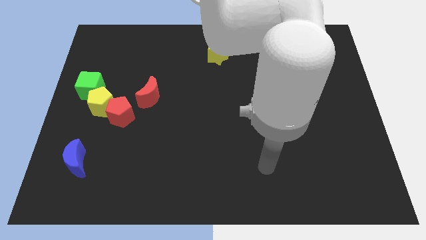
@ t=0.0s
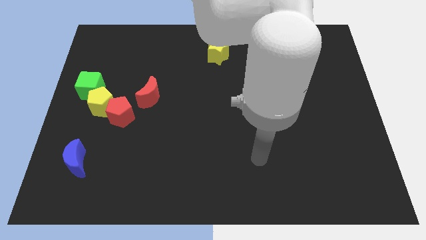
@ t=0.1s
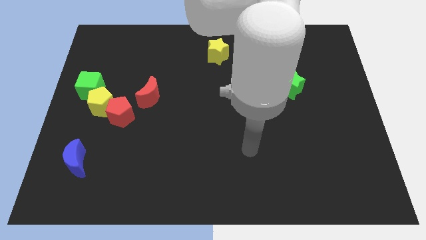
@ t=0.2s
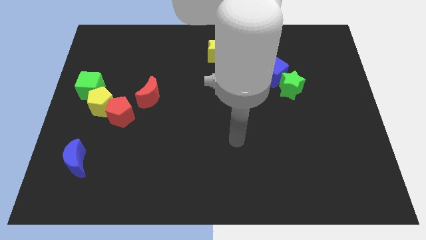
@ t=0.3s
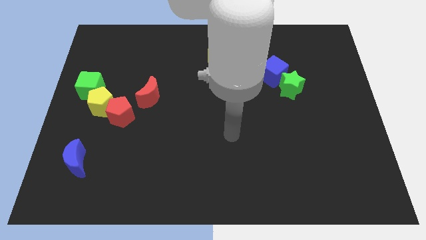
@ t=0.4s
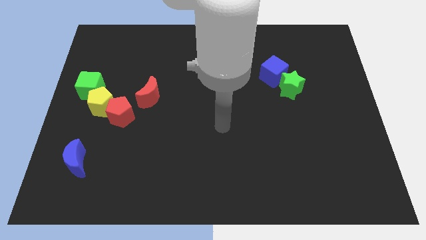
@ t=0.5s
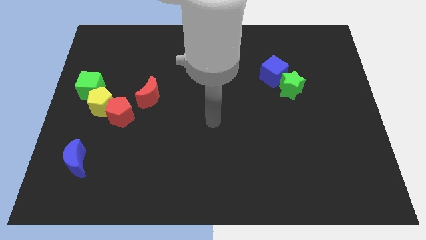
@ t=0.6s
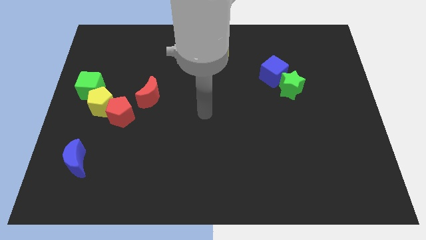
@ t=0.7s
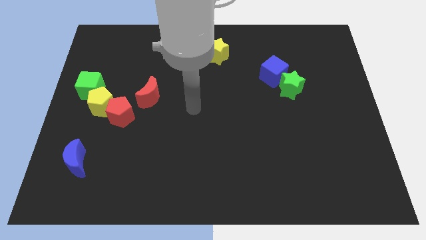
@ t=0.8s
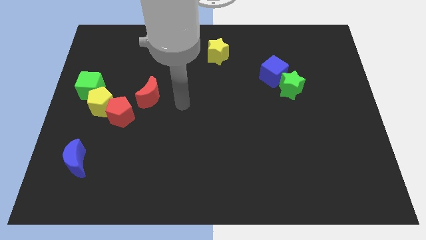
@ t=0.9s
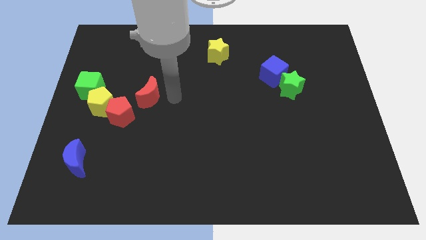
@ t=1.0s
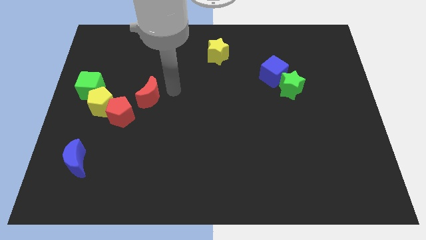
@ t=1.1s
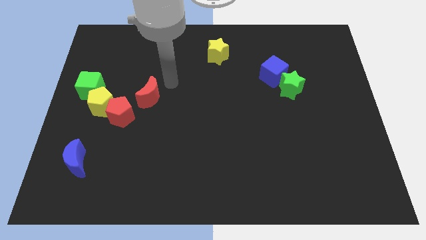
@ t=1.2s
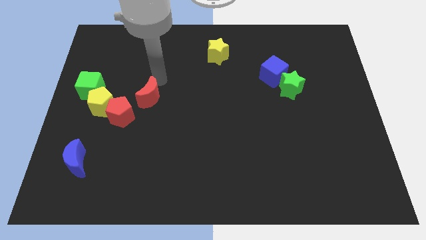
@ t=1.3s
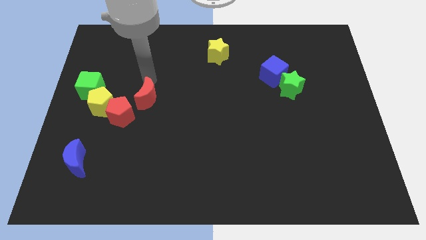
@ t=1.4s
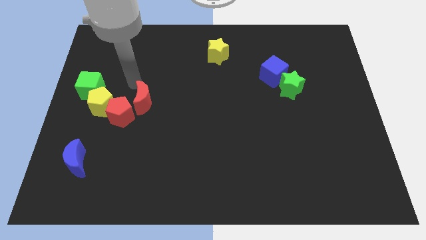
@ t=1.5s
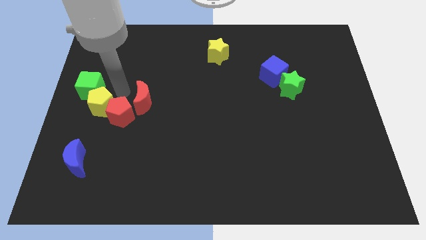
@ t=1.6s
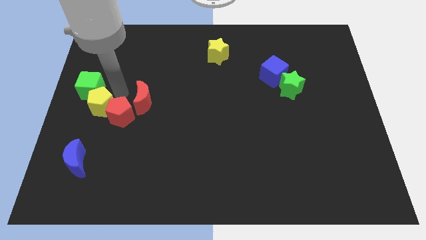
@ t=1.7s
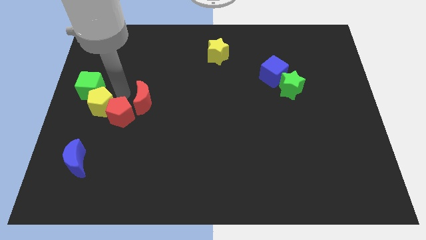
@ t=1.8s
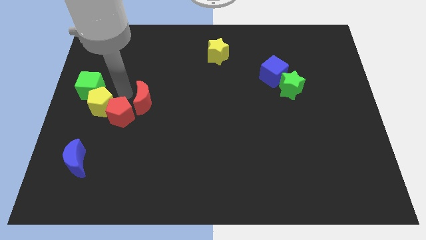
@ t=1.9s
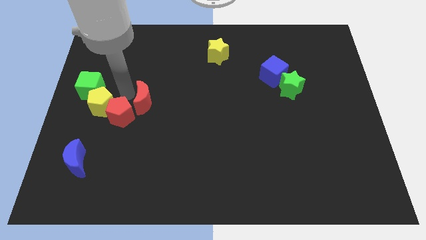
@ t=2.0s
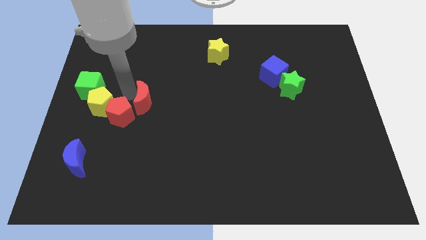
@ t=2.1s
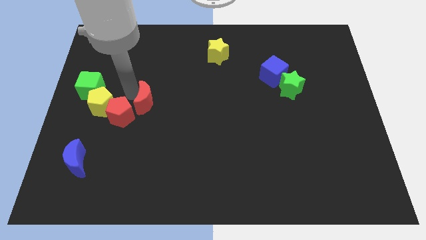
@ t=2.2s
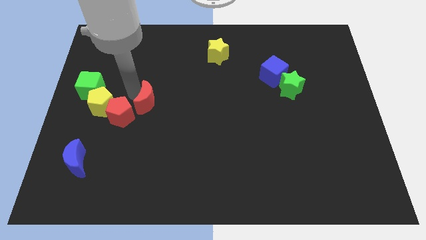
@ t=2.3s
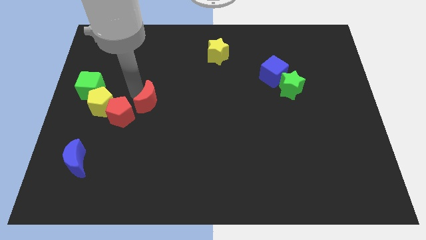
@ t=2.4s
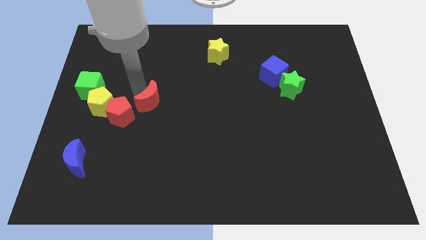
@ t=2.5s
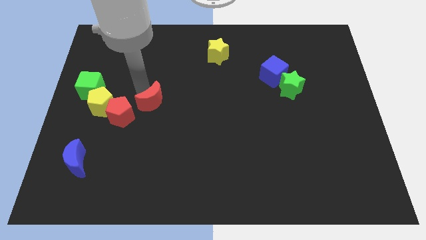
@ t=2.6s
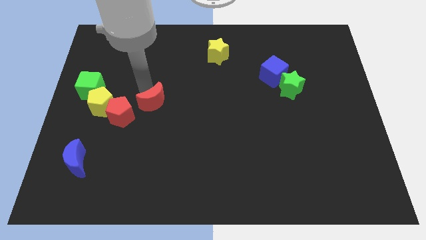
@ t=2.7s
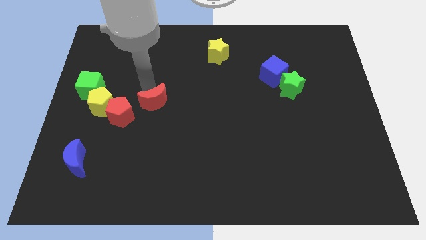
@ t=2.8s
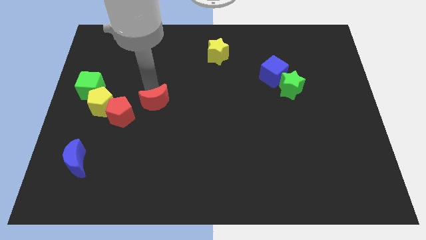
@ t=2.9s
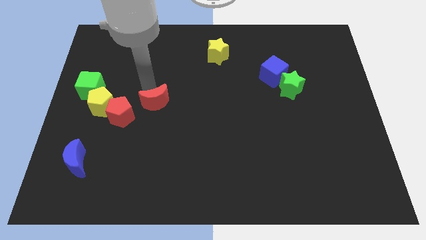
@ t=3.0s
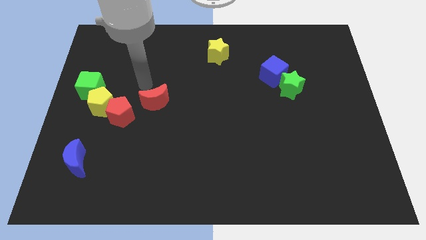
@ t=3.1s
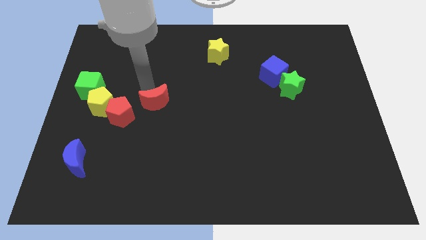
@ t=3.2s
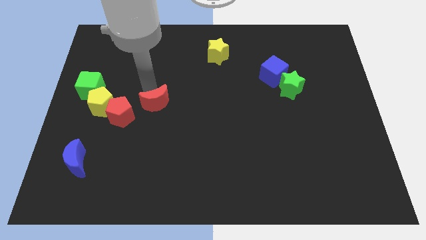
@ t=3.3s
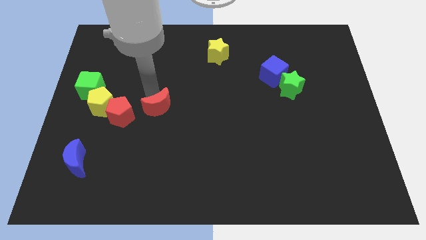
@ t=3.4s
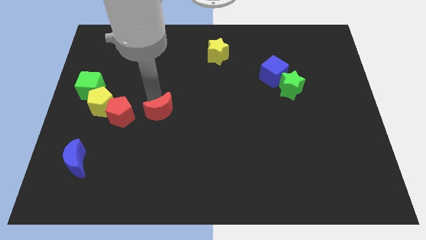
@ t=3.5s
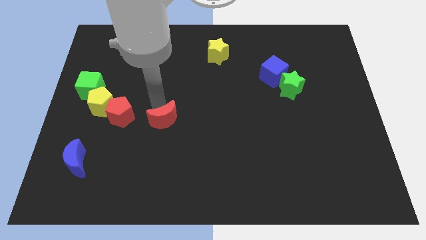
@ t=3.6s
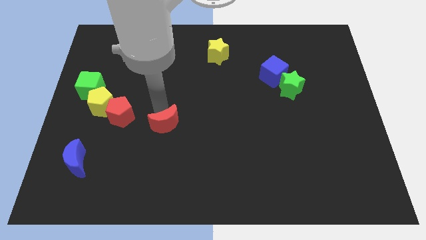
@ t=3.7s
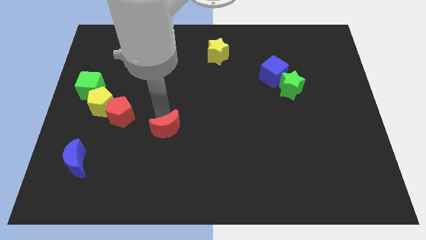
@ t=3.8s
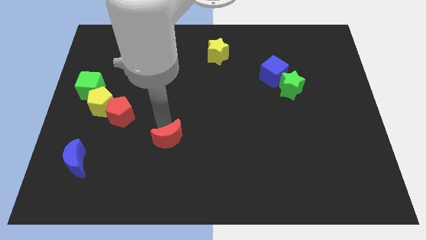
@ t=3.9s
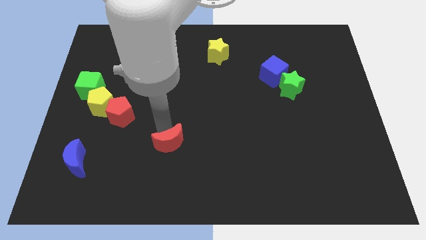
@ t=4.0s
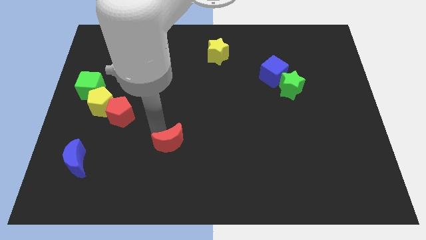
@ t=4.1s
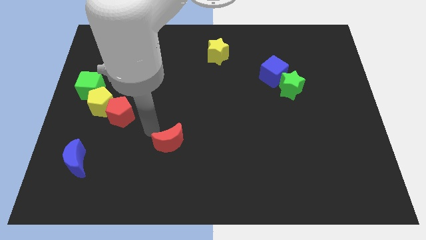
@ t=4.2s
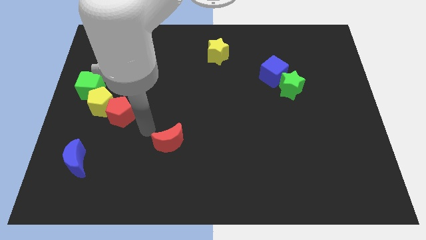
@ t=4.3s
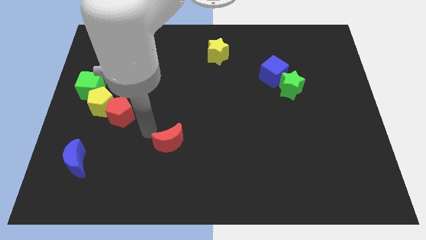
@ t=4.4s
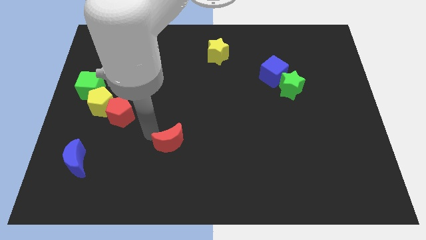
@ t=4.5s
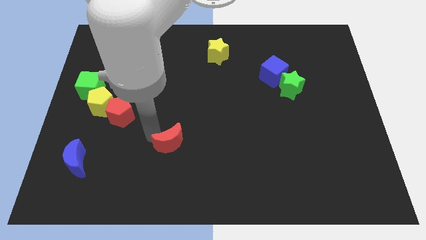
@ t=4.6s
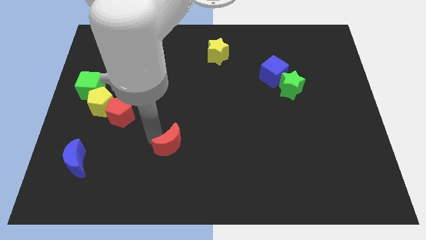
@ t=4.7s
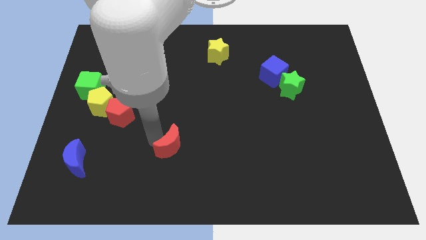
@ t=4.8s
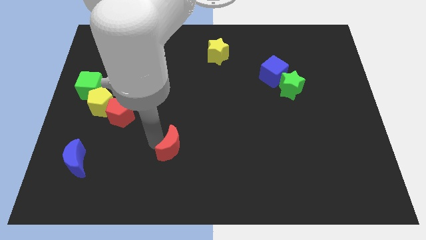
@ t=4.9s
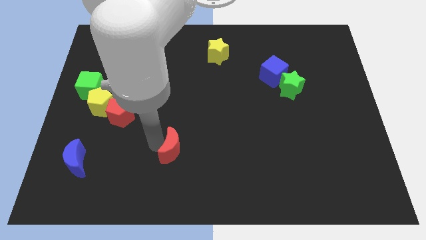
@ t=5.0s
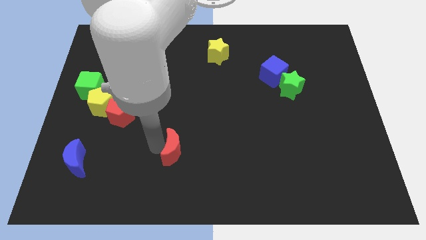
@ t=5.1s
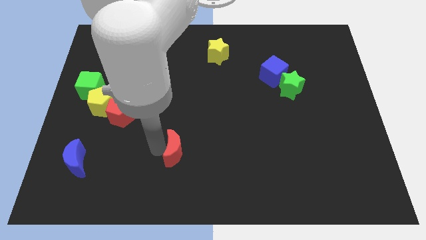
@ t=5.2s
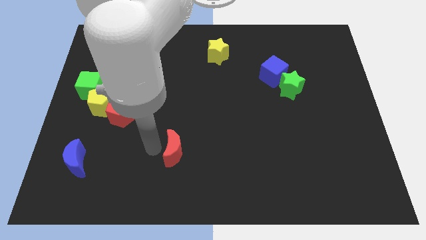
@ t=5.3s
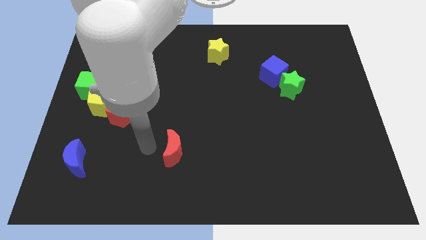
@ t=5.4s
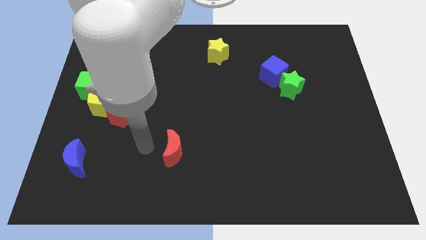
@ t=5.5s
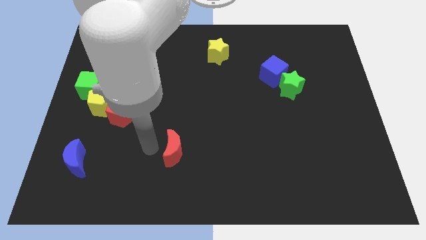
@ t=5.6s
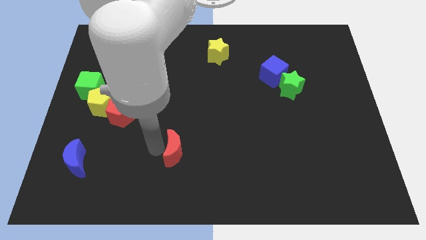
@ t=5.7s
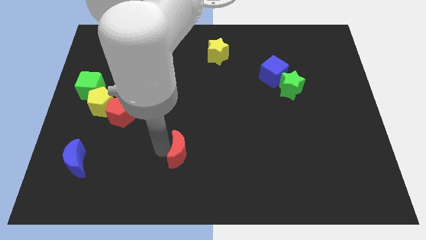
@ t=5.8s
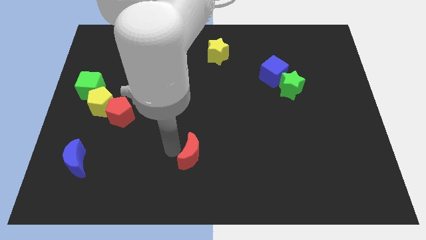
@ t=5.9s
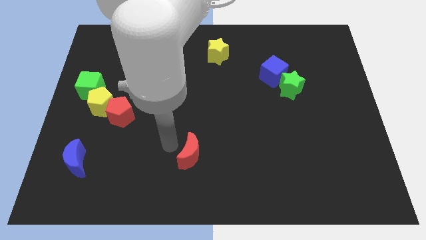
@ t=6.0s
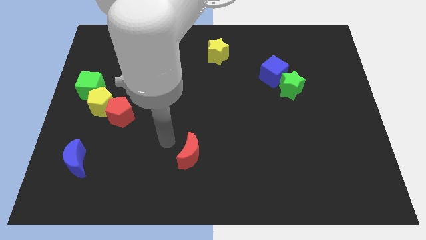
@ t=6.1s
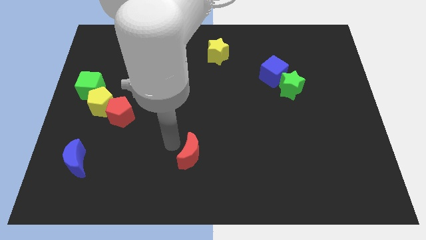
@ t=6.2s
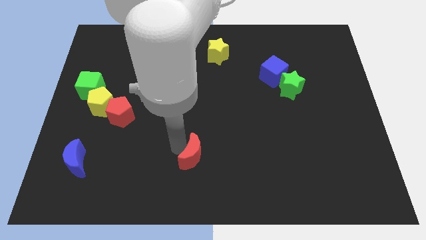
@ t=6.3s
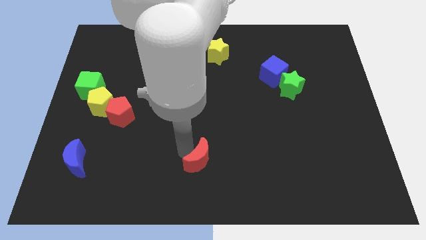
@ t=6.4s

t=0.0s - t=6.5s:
move the red moon down and right diagonally

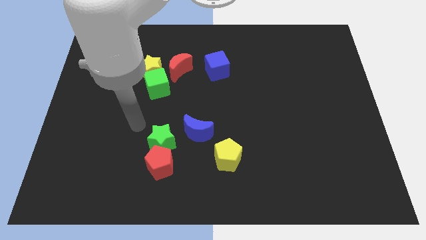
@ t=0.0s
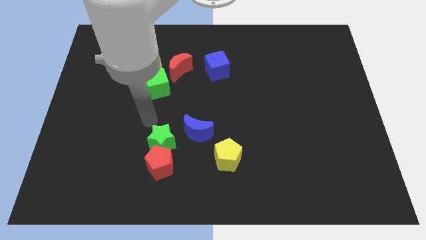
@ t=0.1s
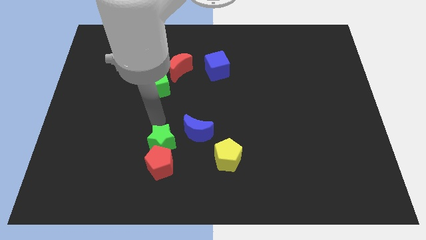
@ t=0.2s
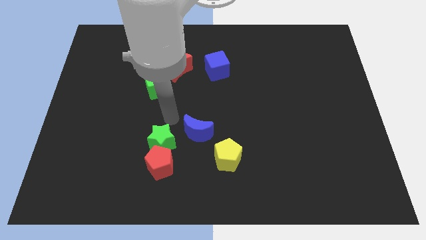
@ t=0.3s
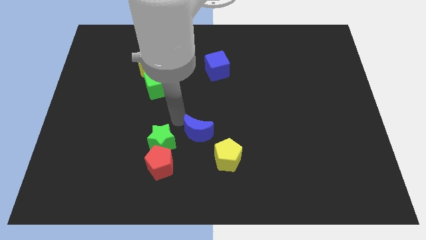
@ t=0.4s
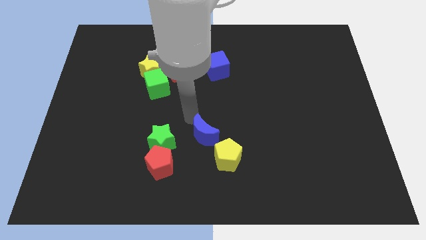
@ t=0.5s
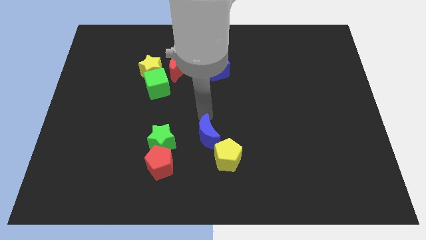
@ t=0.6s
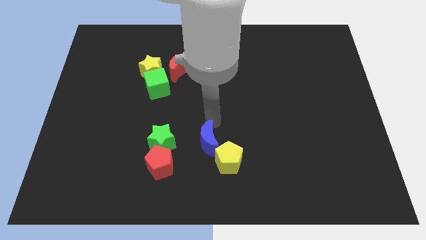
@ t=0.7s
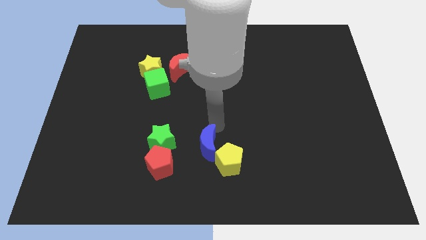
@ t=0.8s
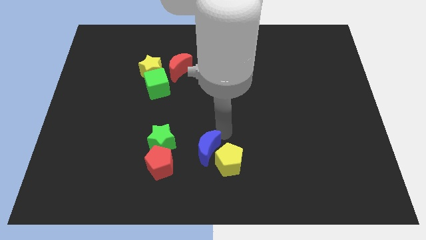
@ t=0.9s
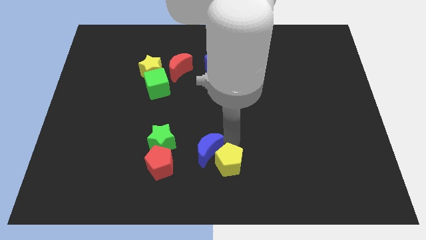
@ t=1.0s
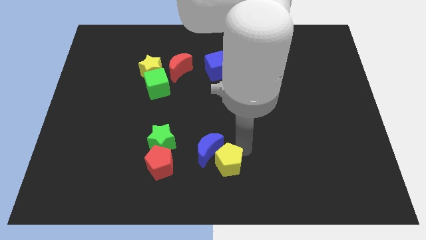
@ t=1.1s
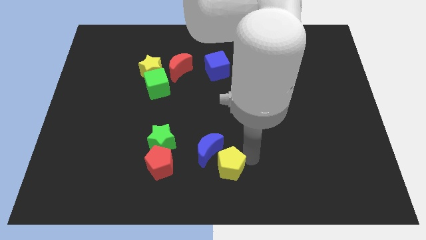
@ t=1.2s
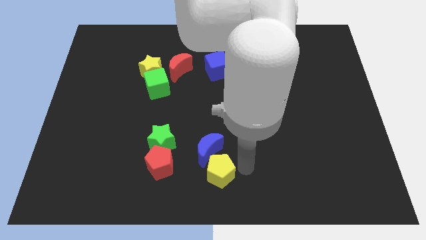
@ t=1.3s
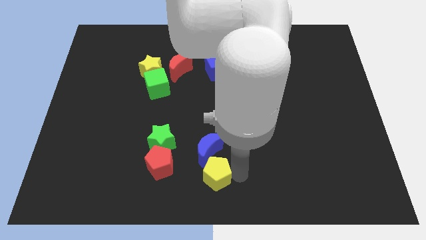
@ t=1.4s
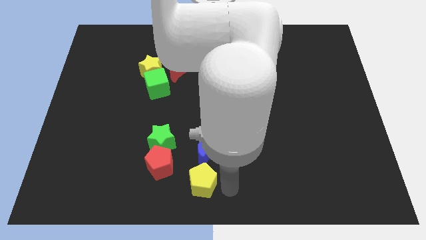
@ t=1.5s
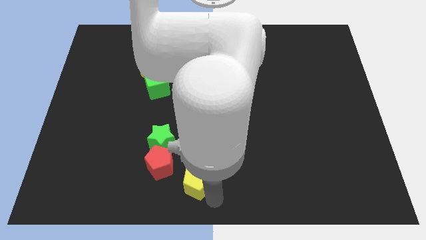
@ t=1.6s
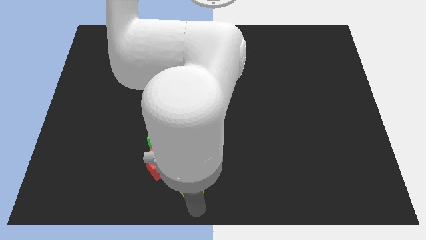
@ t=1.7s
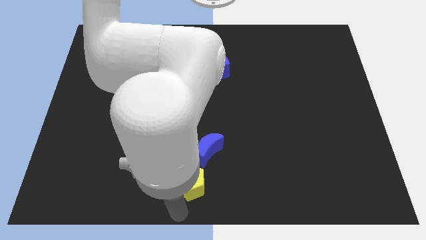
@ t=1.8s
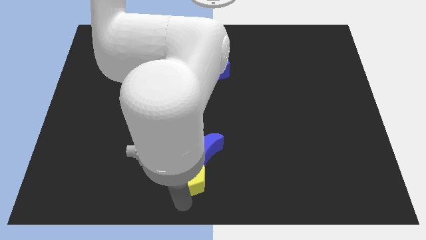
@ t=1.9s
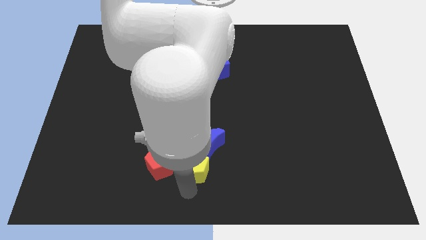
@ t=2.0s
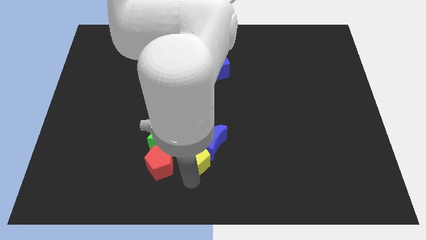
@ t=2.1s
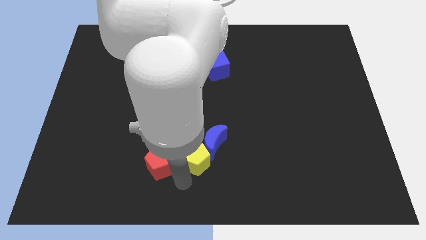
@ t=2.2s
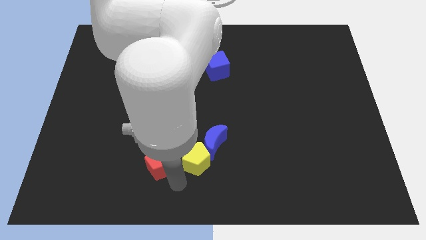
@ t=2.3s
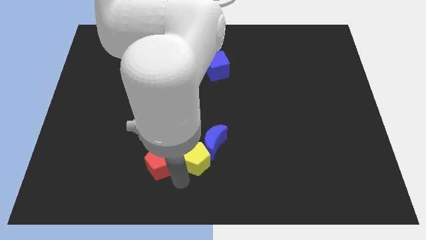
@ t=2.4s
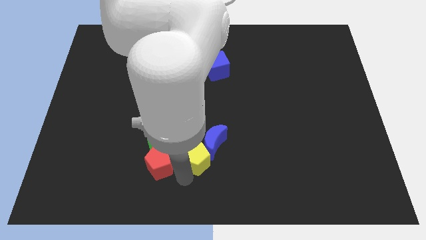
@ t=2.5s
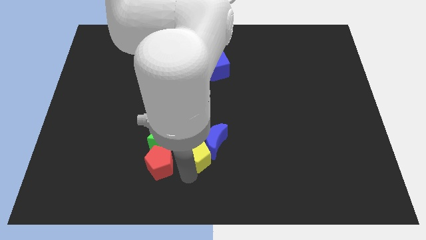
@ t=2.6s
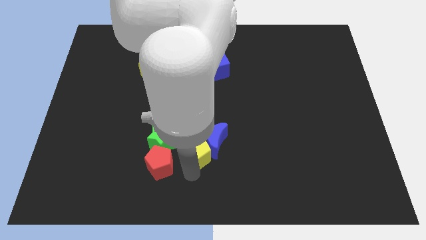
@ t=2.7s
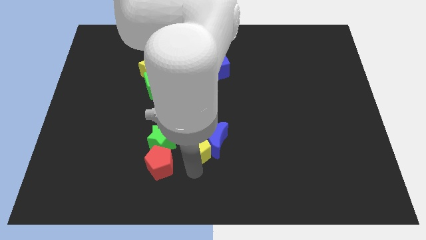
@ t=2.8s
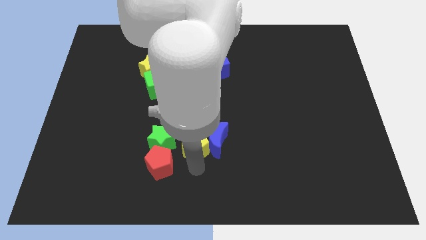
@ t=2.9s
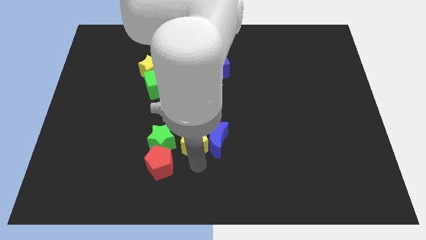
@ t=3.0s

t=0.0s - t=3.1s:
slide the yellow pentagon up and to the left a bit
